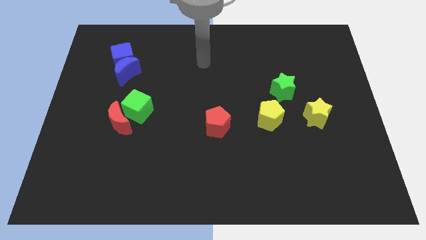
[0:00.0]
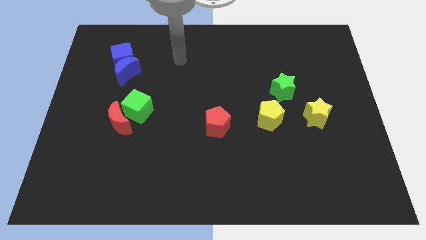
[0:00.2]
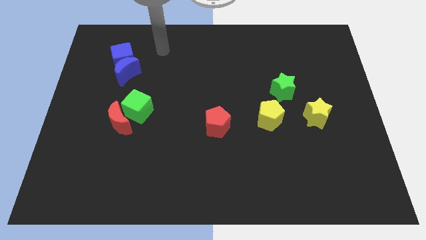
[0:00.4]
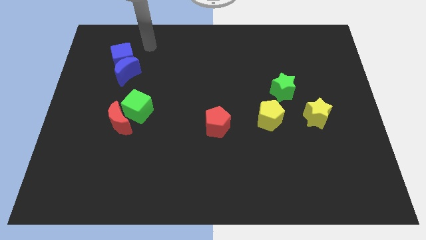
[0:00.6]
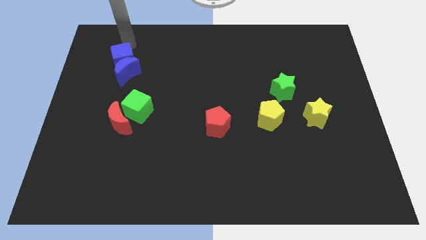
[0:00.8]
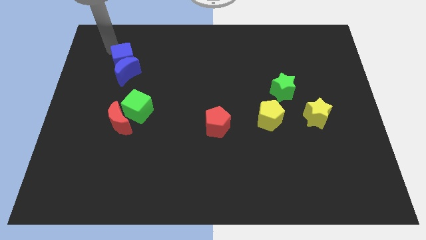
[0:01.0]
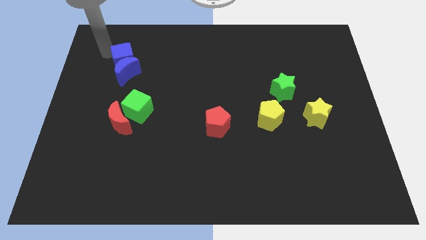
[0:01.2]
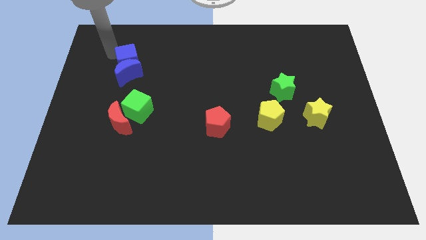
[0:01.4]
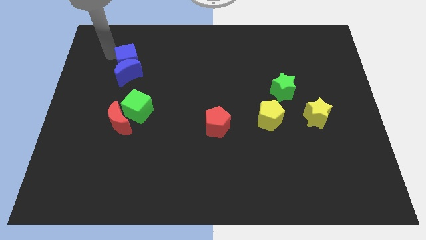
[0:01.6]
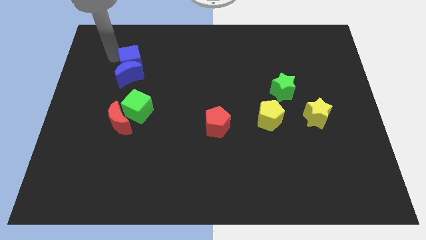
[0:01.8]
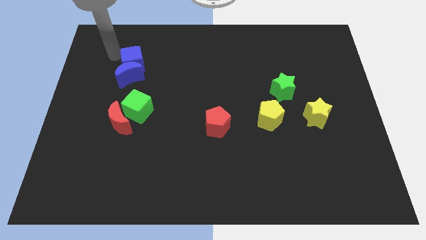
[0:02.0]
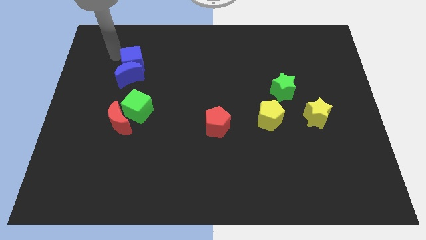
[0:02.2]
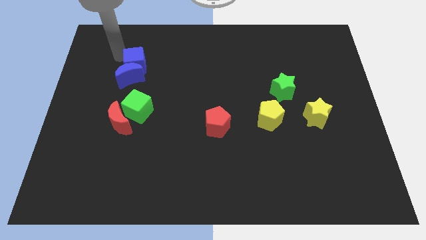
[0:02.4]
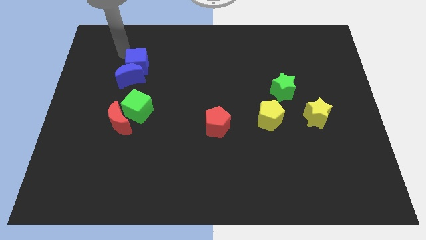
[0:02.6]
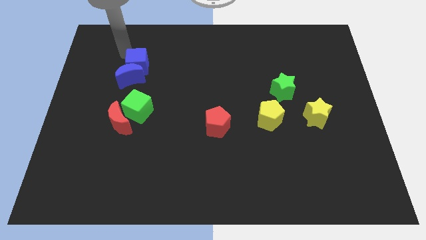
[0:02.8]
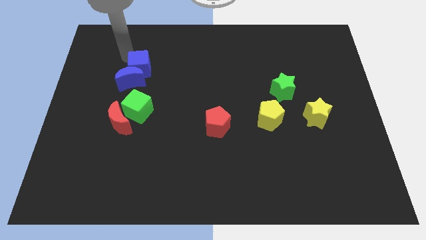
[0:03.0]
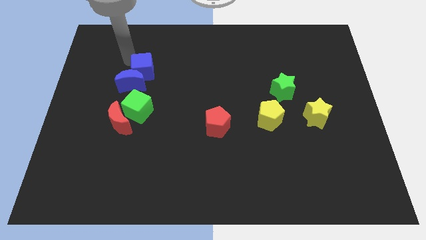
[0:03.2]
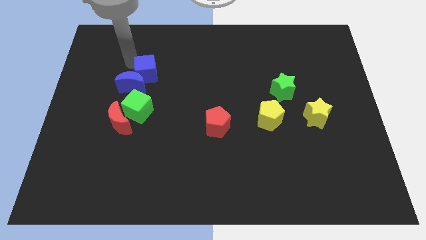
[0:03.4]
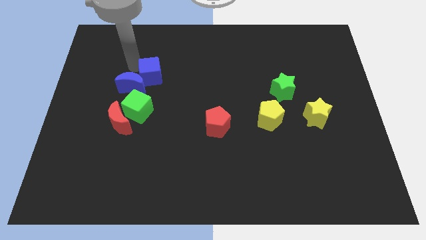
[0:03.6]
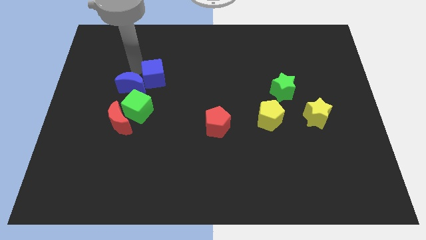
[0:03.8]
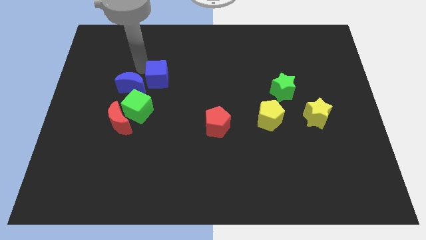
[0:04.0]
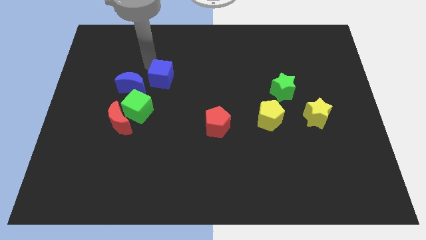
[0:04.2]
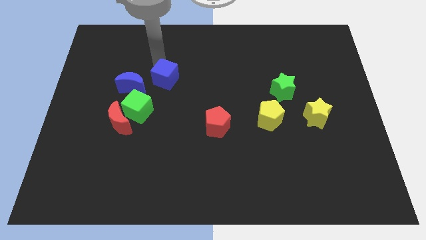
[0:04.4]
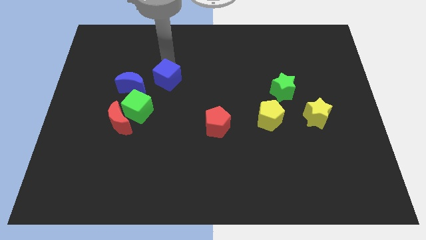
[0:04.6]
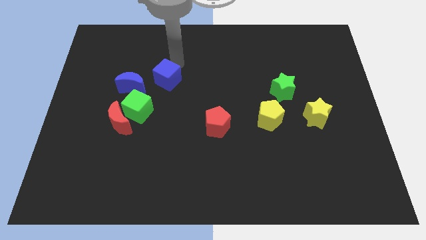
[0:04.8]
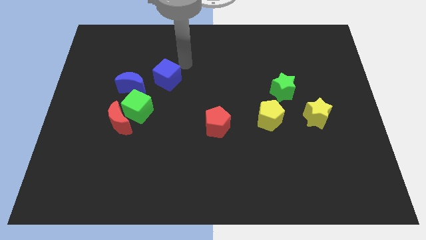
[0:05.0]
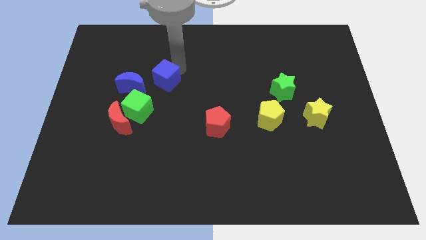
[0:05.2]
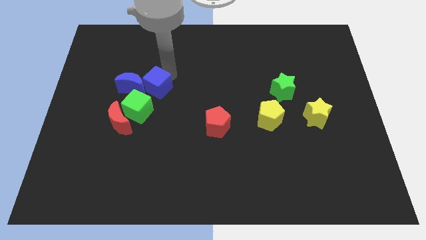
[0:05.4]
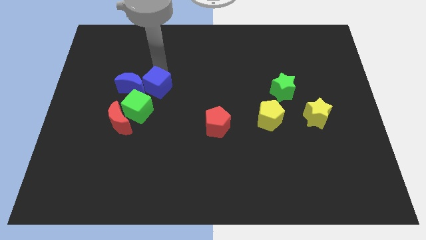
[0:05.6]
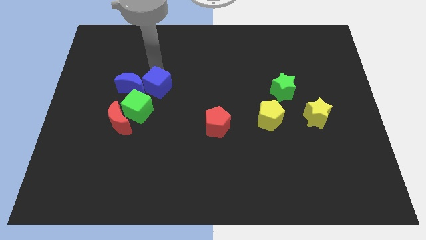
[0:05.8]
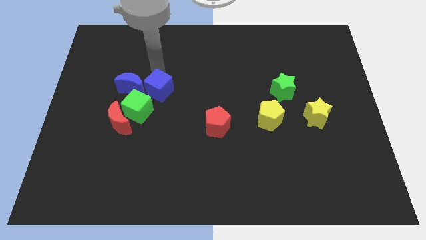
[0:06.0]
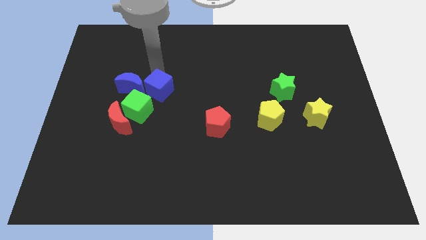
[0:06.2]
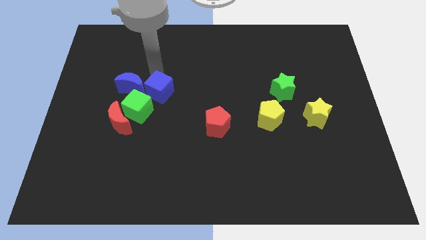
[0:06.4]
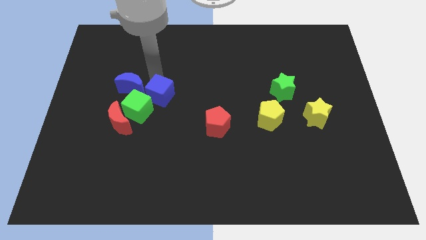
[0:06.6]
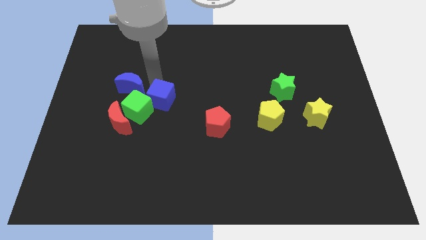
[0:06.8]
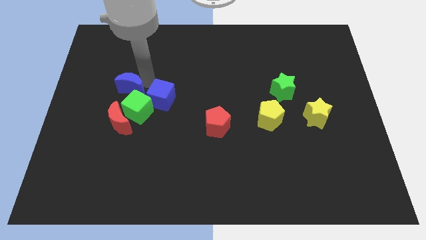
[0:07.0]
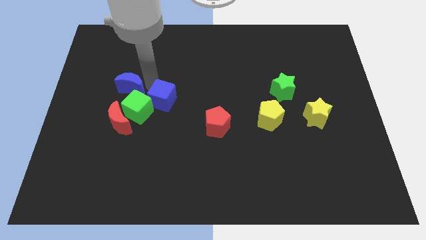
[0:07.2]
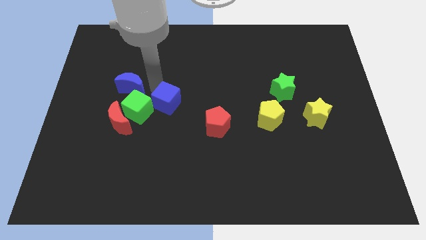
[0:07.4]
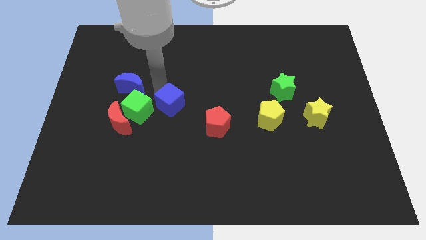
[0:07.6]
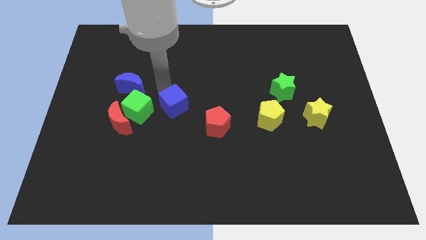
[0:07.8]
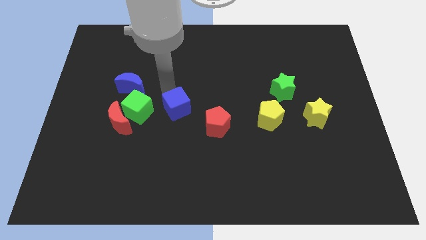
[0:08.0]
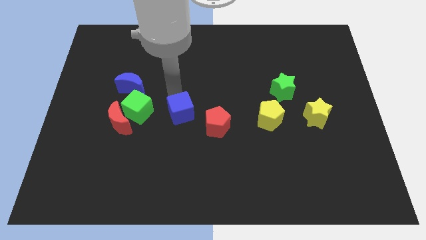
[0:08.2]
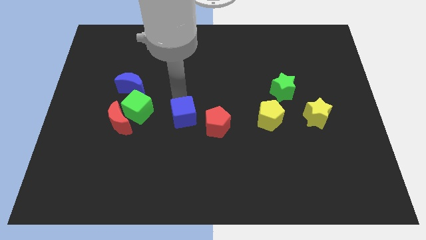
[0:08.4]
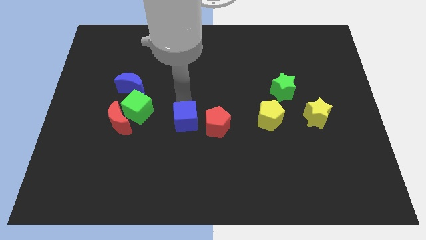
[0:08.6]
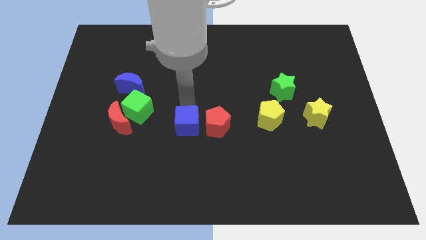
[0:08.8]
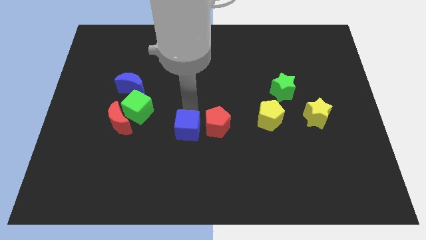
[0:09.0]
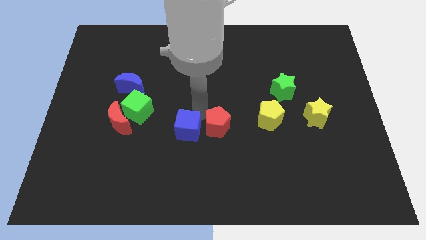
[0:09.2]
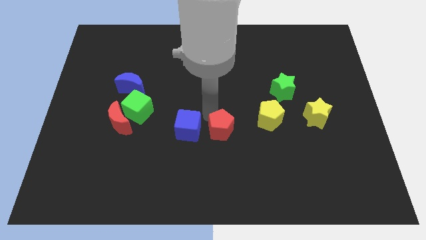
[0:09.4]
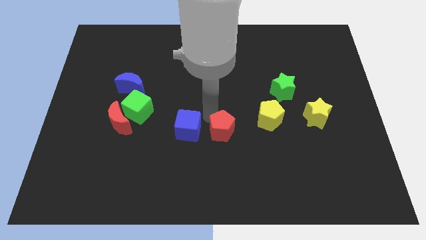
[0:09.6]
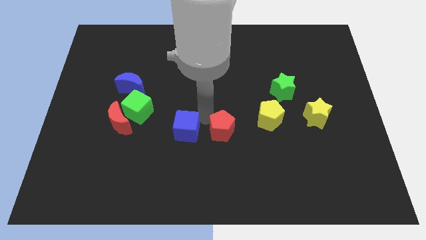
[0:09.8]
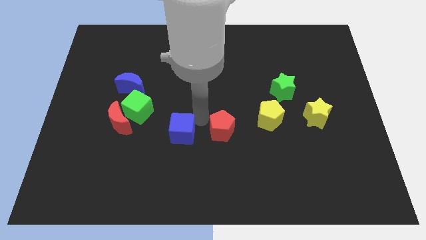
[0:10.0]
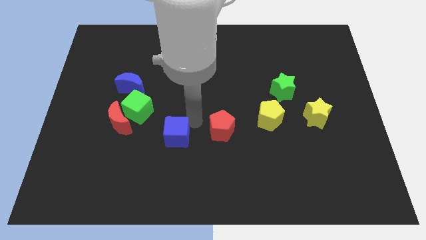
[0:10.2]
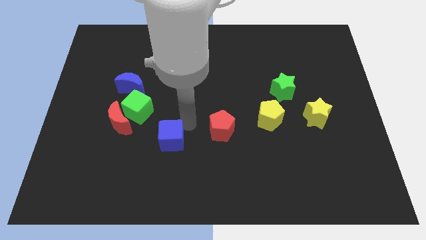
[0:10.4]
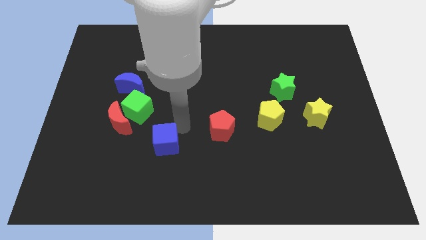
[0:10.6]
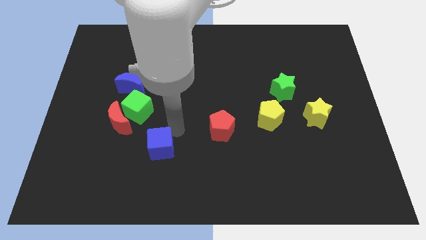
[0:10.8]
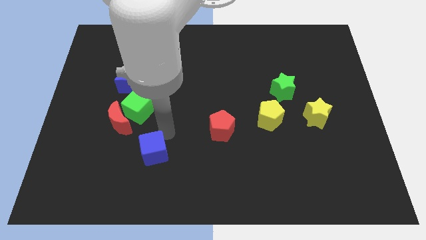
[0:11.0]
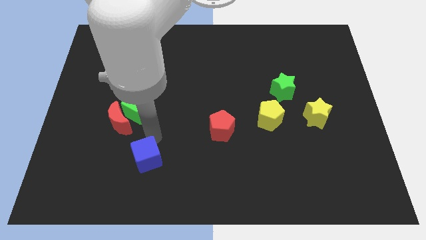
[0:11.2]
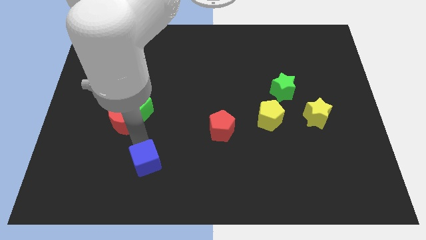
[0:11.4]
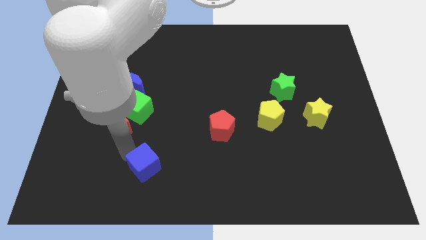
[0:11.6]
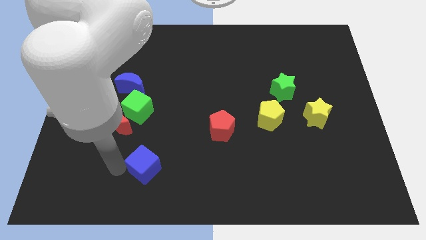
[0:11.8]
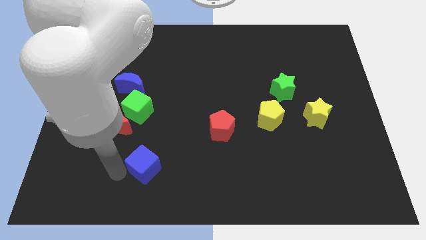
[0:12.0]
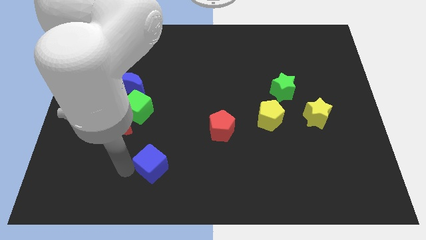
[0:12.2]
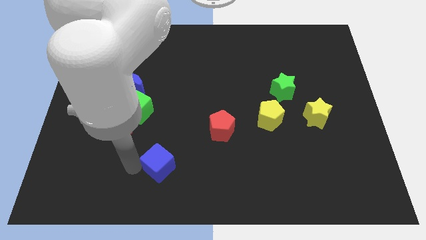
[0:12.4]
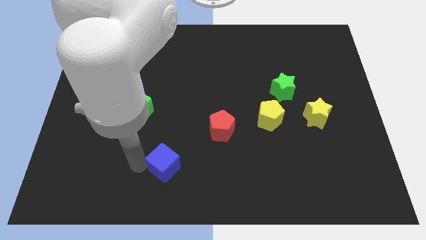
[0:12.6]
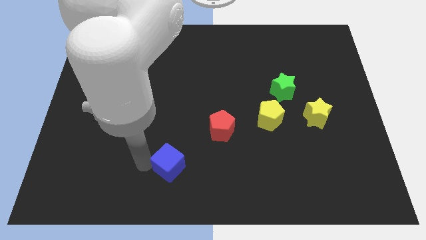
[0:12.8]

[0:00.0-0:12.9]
move the blue cube to the bottom
